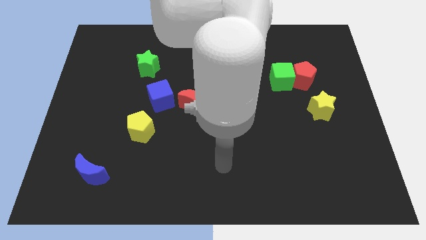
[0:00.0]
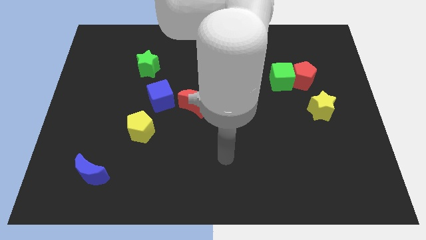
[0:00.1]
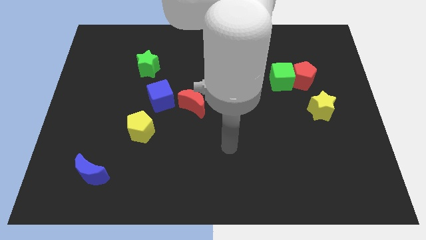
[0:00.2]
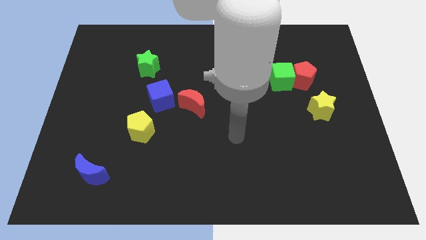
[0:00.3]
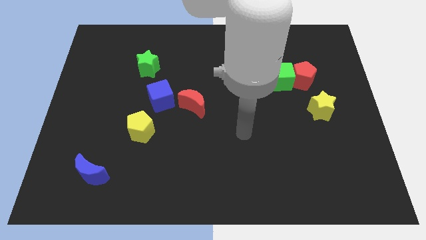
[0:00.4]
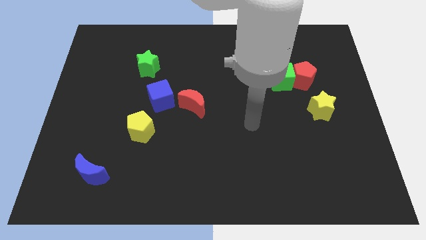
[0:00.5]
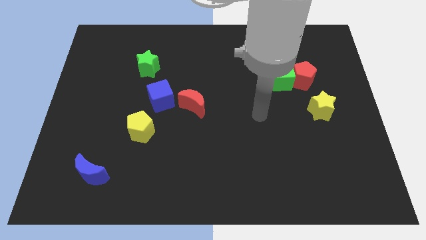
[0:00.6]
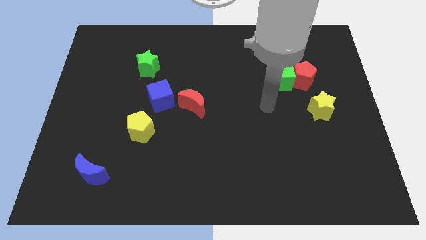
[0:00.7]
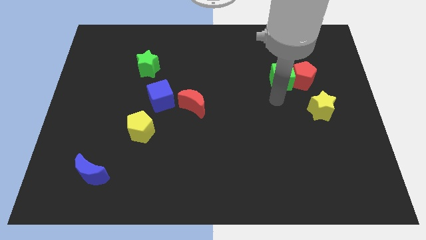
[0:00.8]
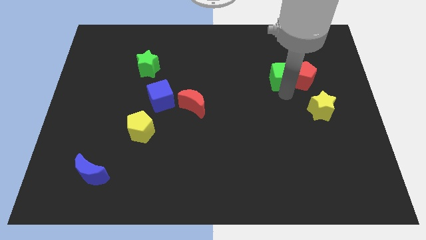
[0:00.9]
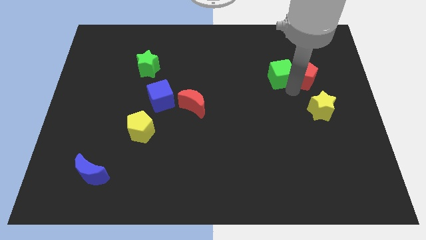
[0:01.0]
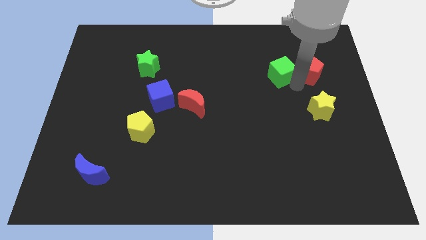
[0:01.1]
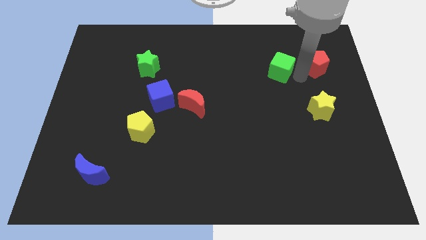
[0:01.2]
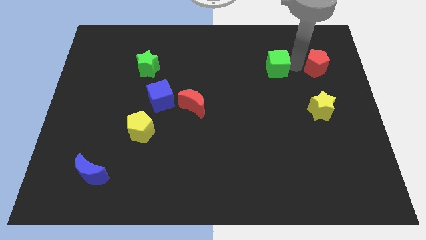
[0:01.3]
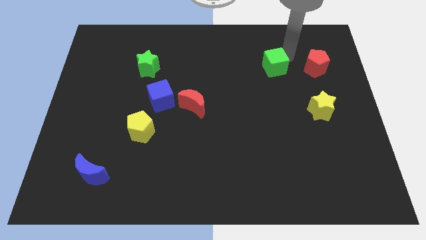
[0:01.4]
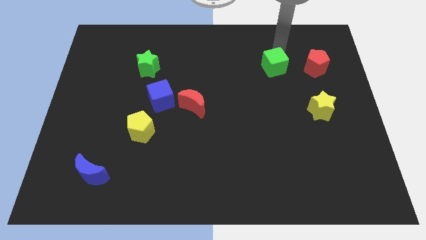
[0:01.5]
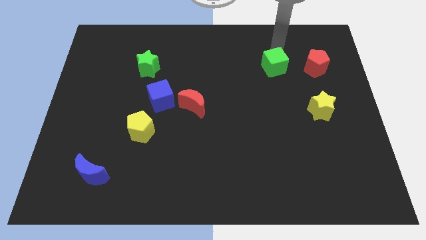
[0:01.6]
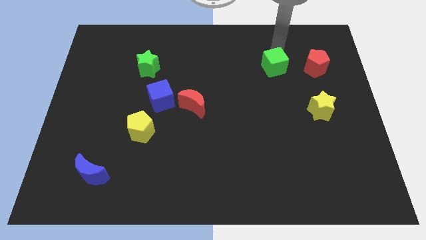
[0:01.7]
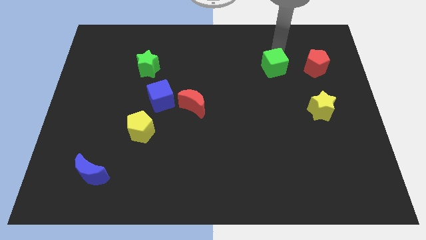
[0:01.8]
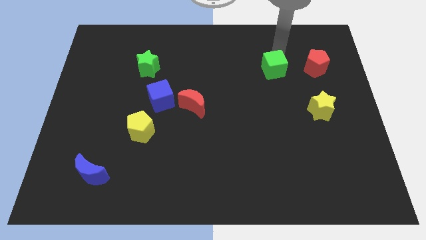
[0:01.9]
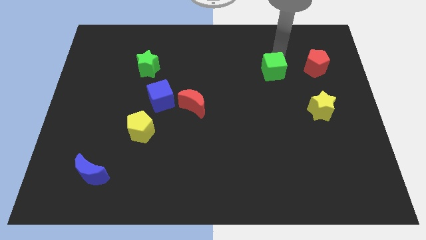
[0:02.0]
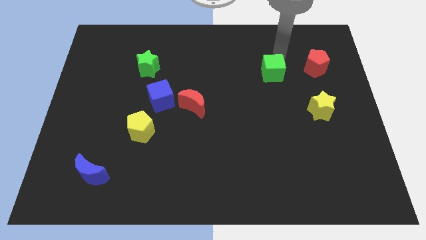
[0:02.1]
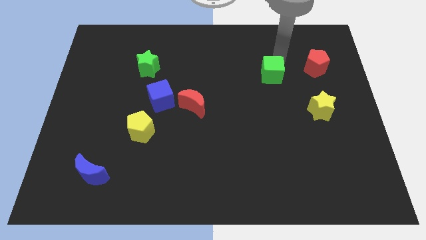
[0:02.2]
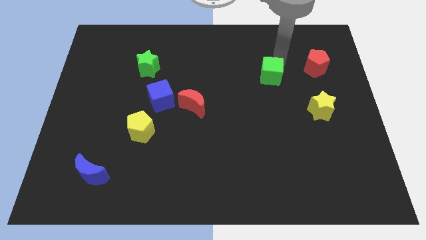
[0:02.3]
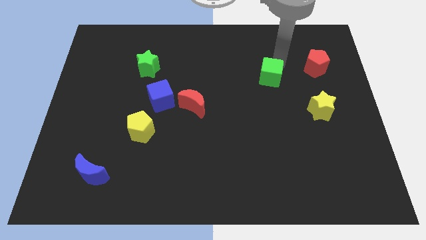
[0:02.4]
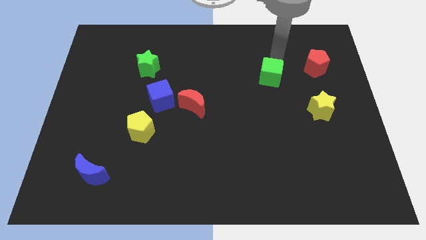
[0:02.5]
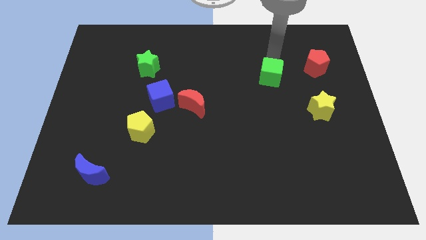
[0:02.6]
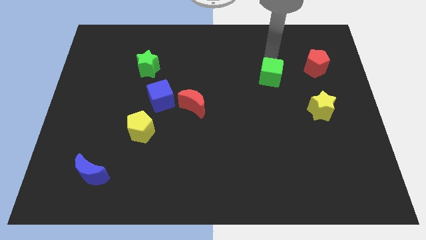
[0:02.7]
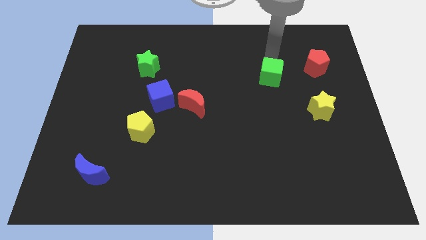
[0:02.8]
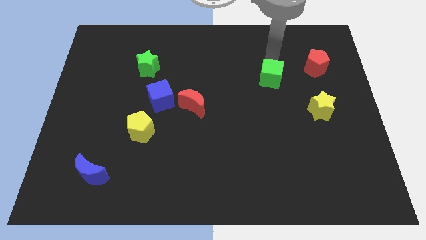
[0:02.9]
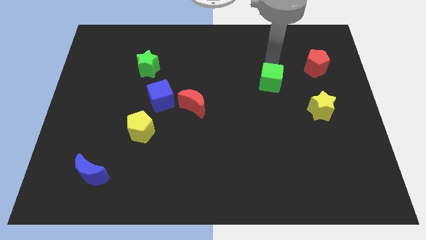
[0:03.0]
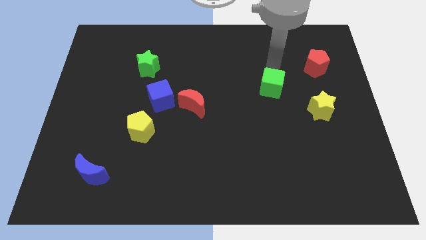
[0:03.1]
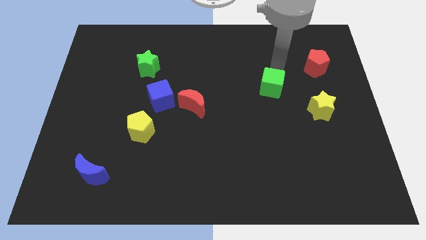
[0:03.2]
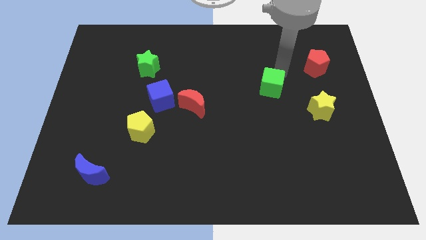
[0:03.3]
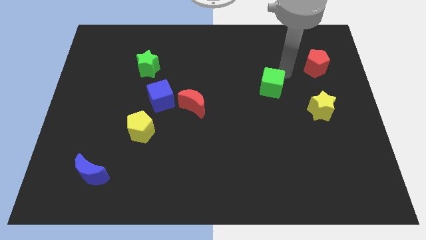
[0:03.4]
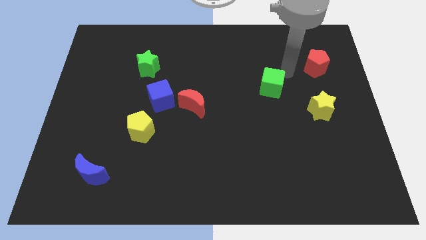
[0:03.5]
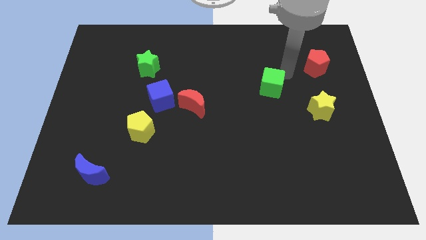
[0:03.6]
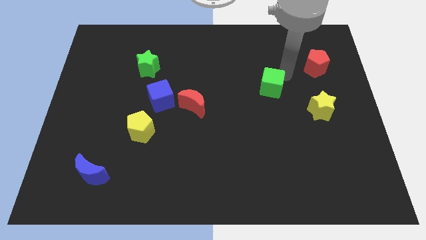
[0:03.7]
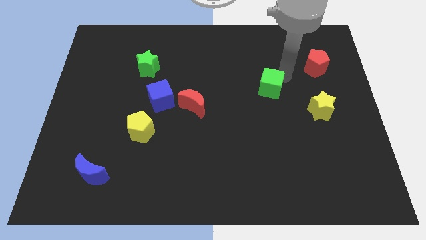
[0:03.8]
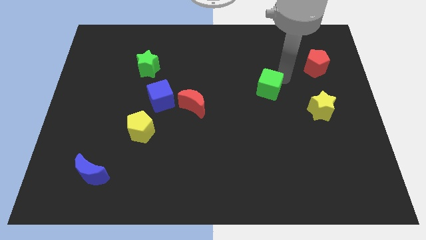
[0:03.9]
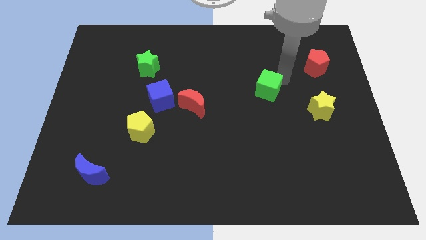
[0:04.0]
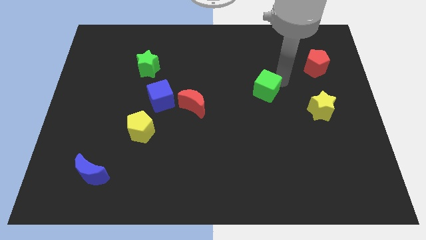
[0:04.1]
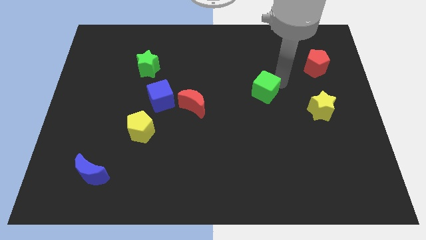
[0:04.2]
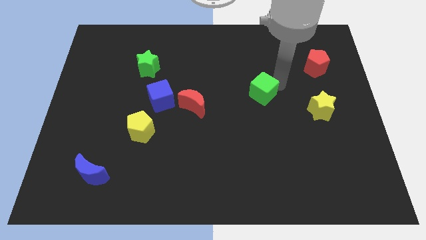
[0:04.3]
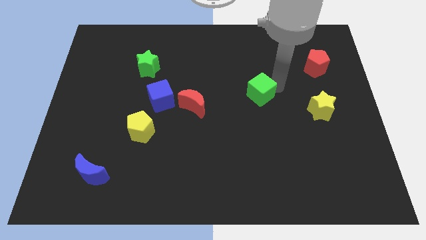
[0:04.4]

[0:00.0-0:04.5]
move the green cube downwards and to the left diagonally a bit

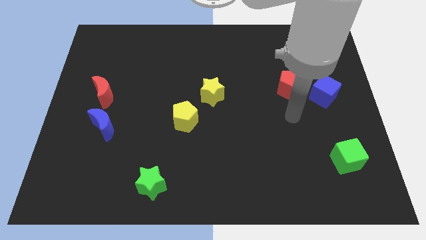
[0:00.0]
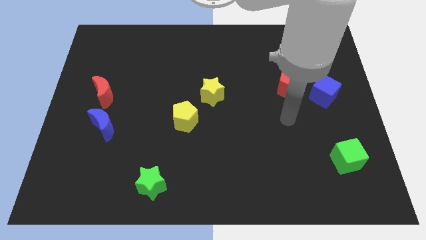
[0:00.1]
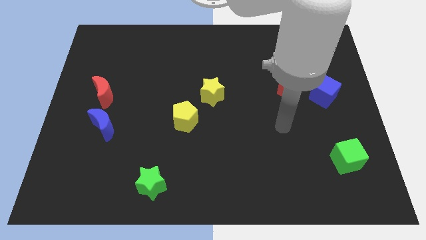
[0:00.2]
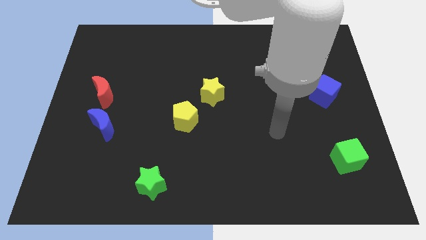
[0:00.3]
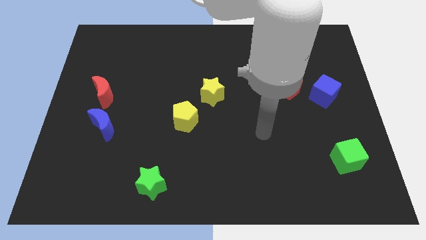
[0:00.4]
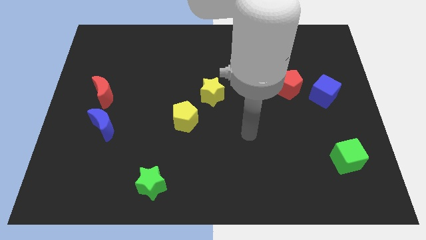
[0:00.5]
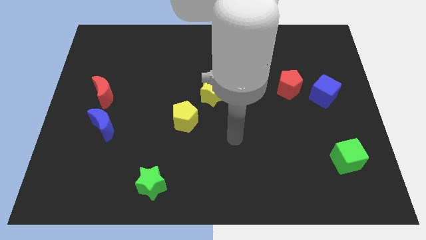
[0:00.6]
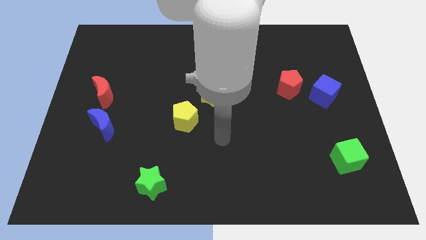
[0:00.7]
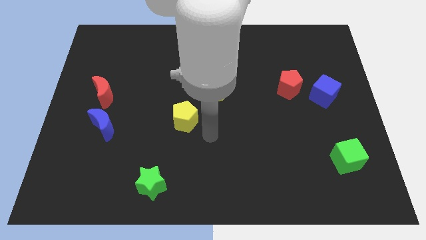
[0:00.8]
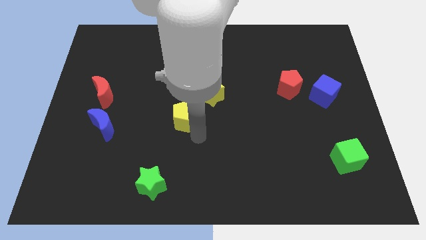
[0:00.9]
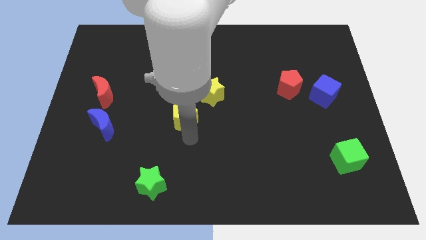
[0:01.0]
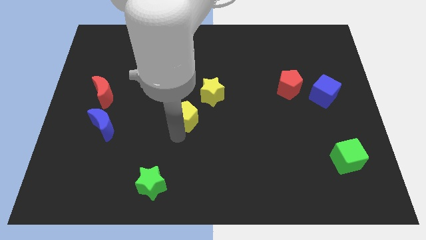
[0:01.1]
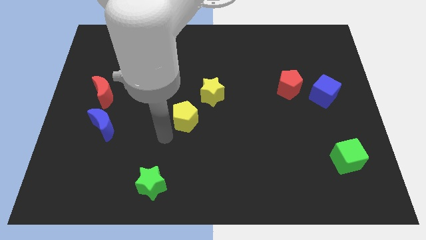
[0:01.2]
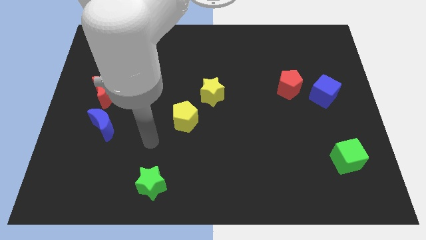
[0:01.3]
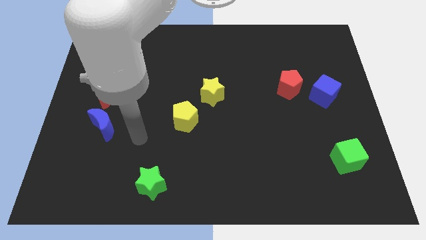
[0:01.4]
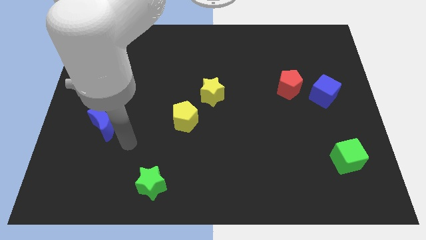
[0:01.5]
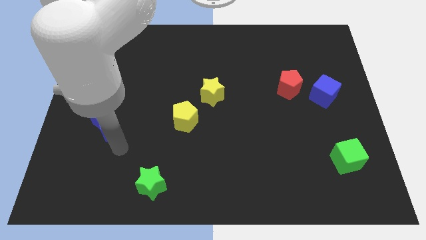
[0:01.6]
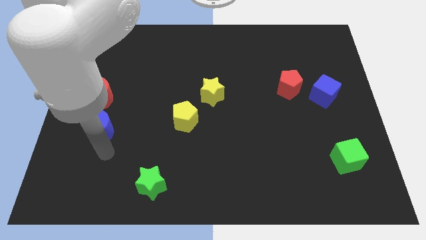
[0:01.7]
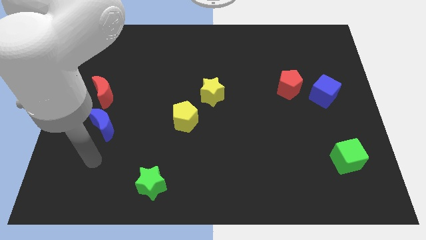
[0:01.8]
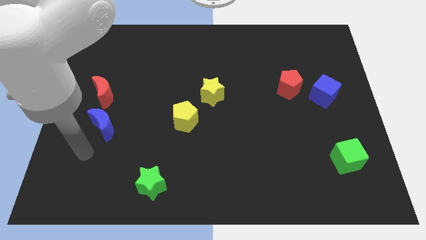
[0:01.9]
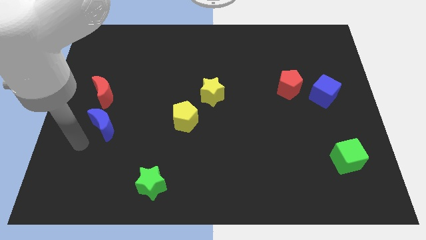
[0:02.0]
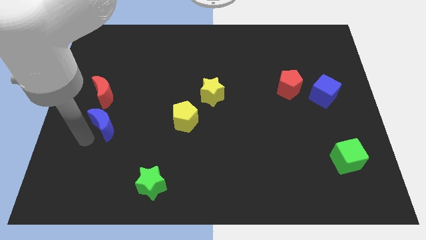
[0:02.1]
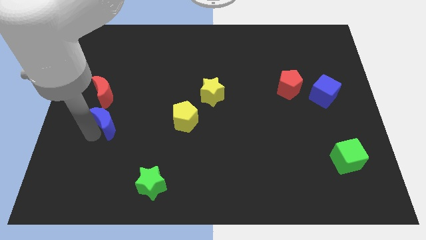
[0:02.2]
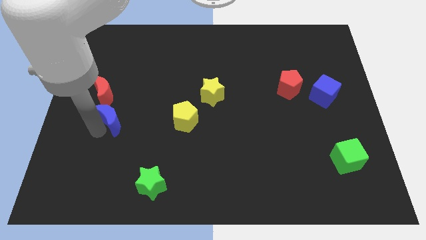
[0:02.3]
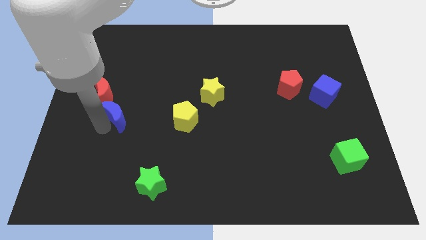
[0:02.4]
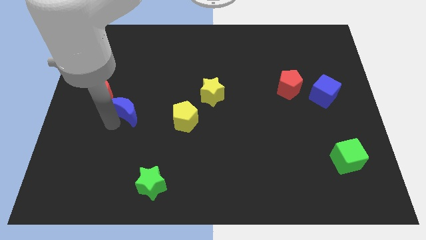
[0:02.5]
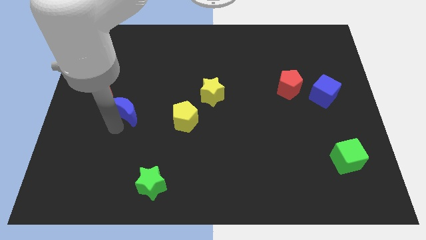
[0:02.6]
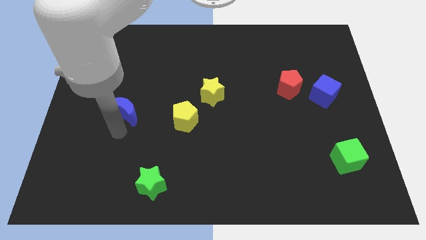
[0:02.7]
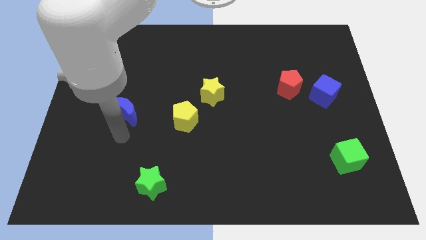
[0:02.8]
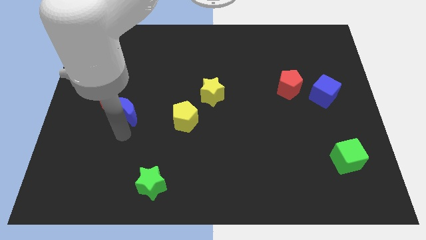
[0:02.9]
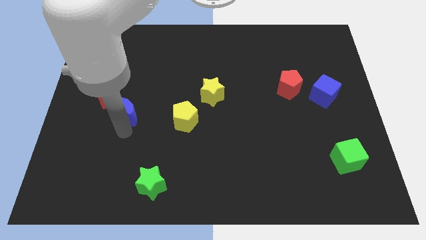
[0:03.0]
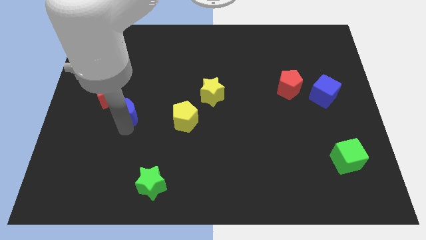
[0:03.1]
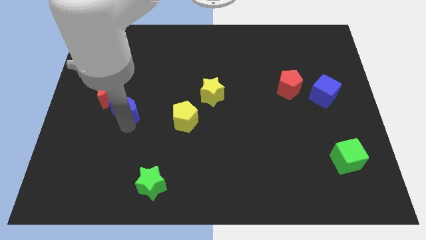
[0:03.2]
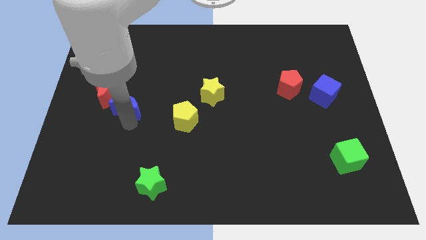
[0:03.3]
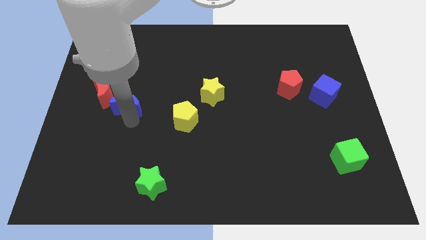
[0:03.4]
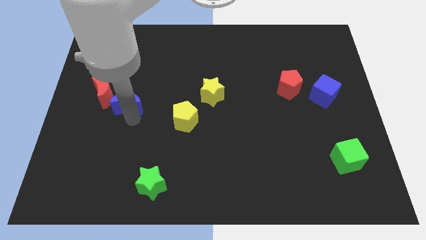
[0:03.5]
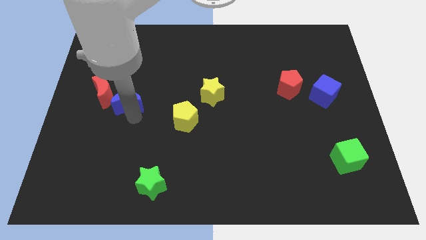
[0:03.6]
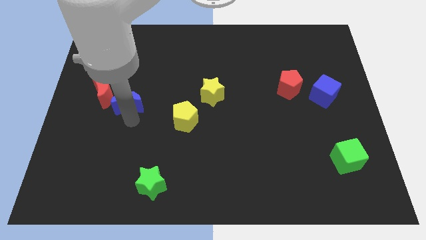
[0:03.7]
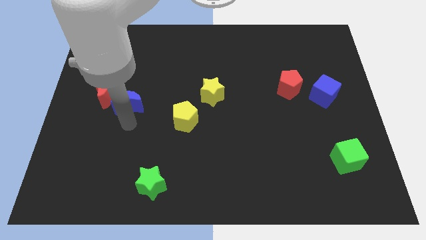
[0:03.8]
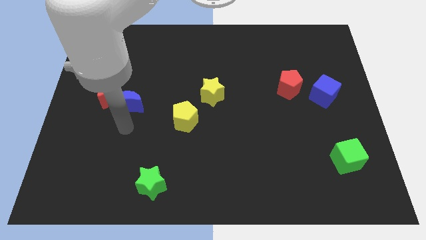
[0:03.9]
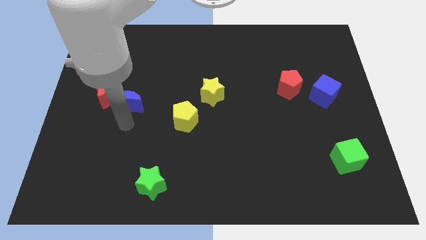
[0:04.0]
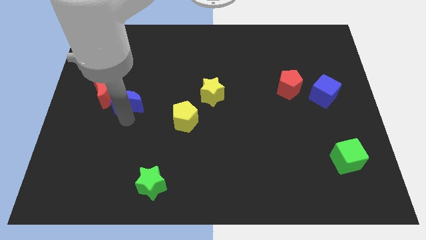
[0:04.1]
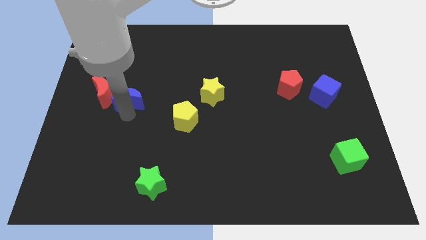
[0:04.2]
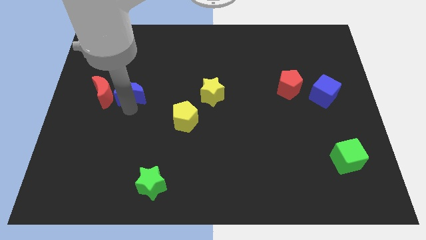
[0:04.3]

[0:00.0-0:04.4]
slightly move the blue moon up
